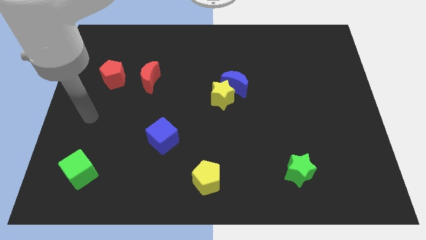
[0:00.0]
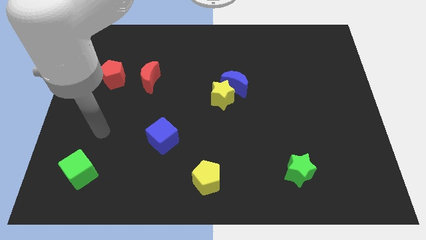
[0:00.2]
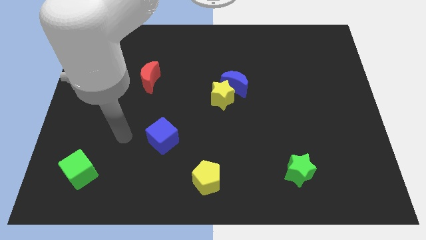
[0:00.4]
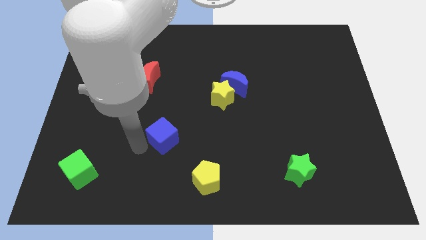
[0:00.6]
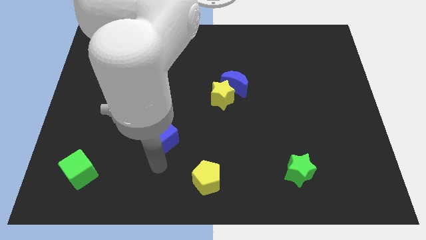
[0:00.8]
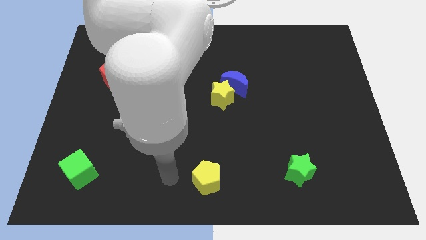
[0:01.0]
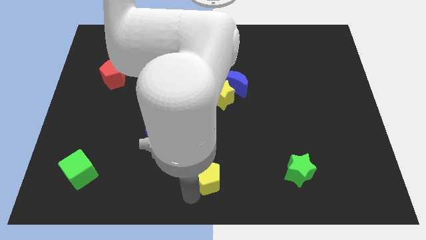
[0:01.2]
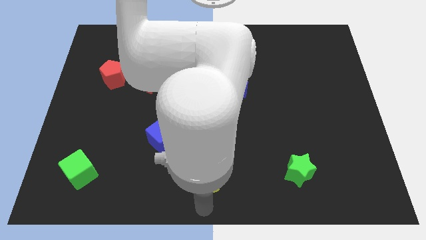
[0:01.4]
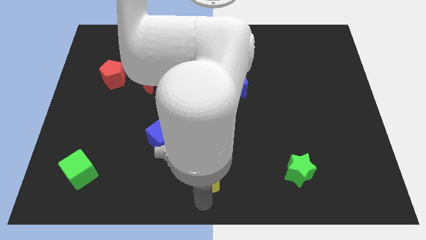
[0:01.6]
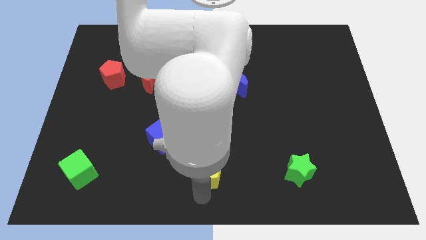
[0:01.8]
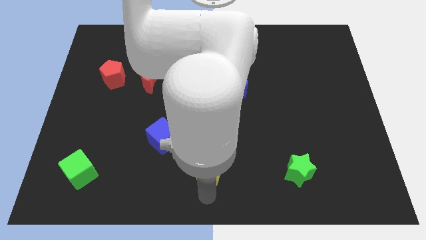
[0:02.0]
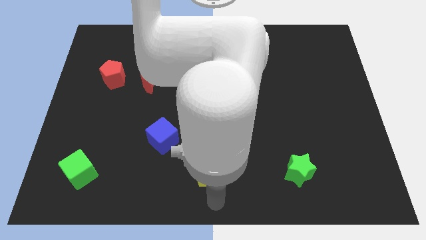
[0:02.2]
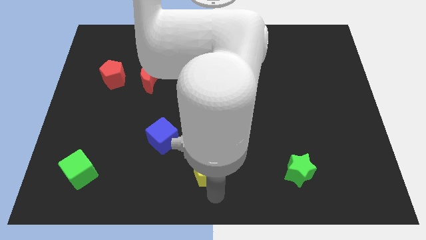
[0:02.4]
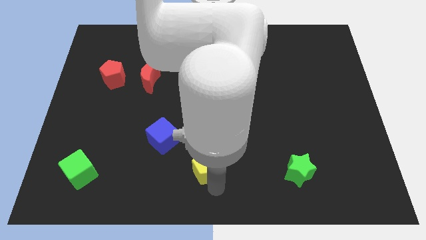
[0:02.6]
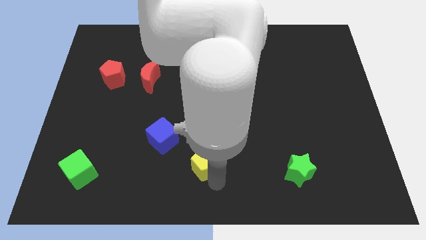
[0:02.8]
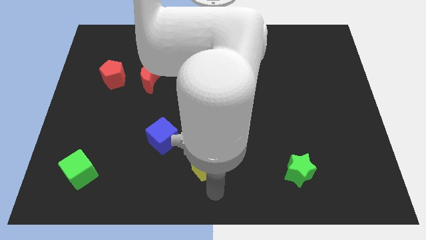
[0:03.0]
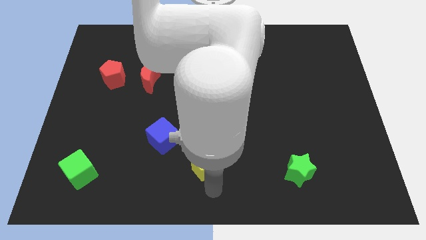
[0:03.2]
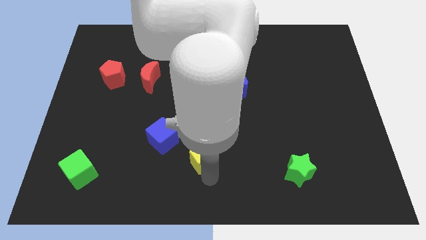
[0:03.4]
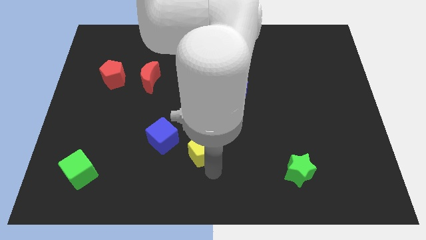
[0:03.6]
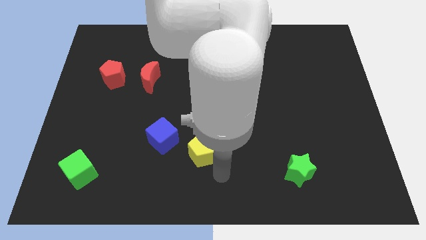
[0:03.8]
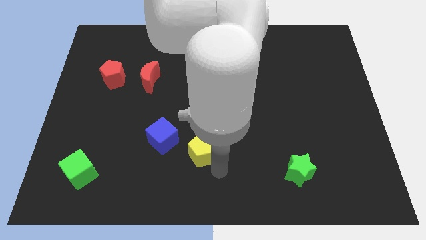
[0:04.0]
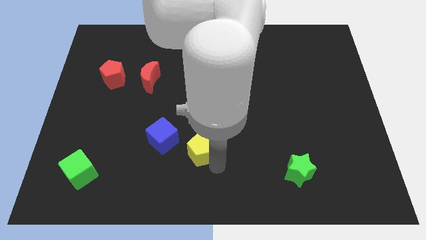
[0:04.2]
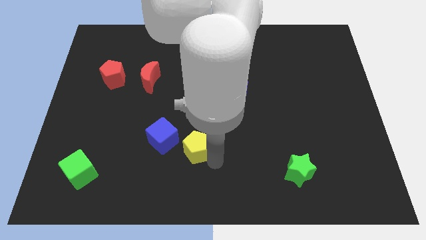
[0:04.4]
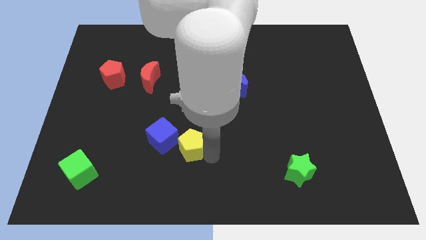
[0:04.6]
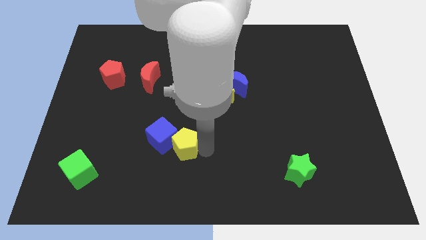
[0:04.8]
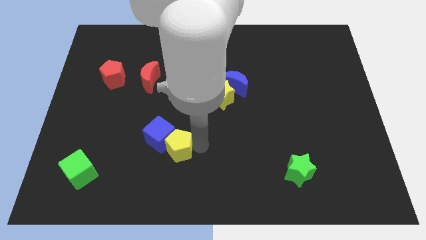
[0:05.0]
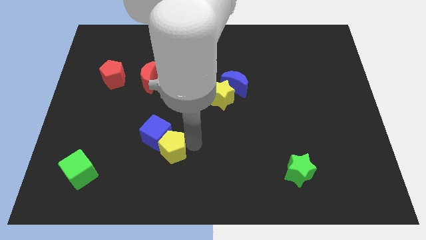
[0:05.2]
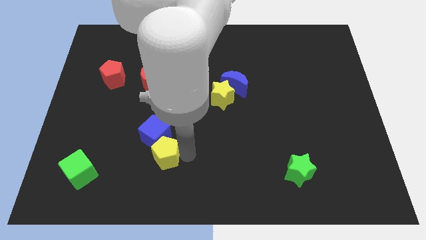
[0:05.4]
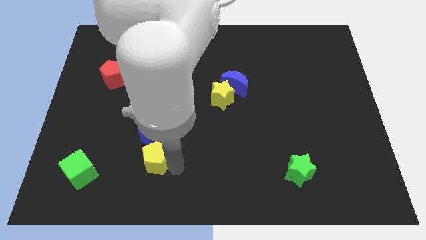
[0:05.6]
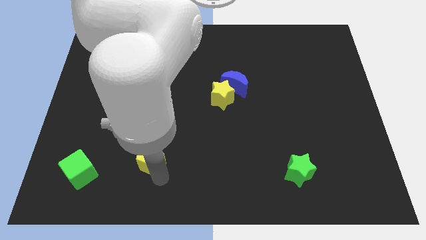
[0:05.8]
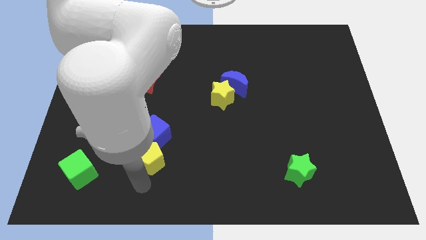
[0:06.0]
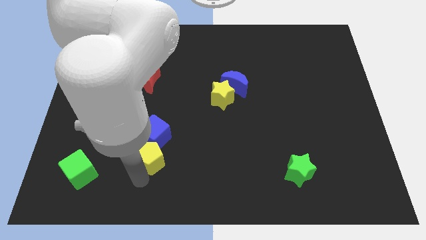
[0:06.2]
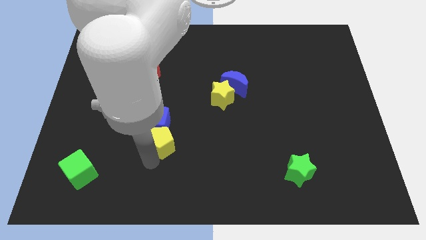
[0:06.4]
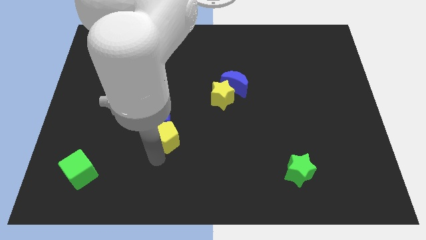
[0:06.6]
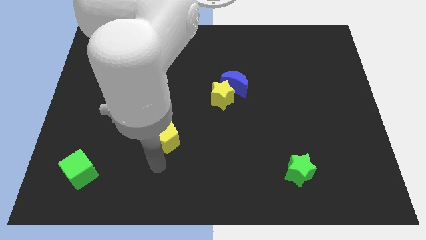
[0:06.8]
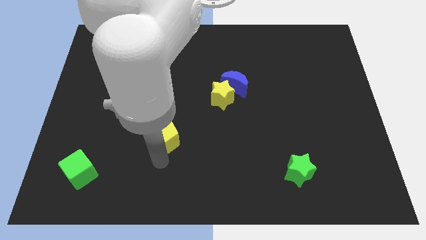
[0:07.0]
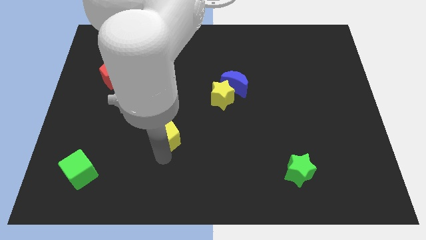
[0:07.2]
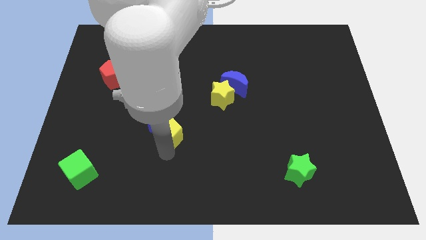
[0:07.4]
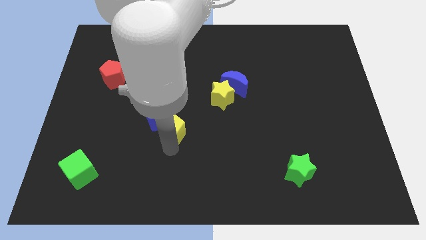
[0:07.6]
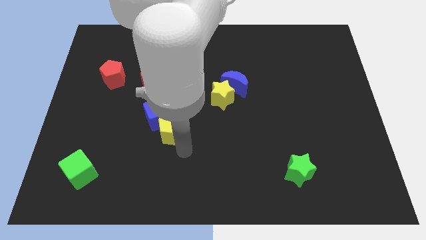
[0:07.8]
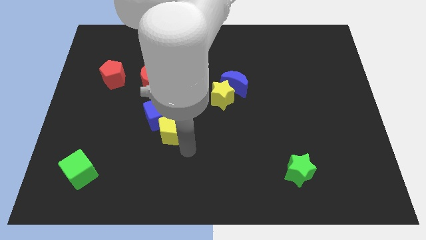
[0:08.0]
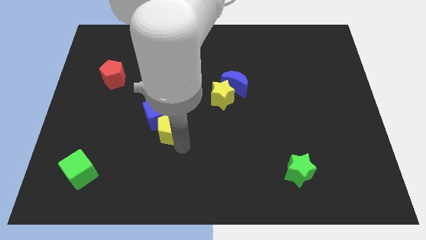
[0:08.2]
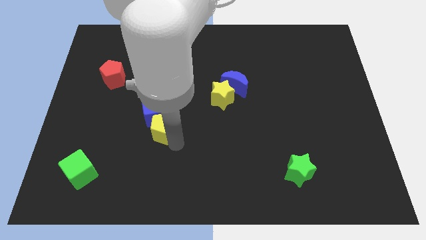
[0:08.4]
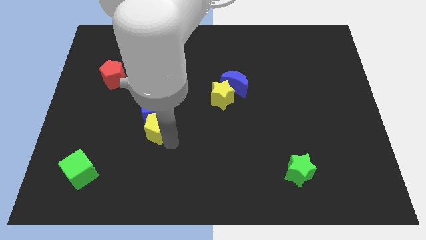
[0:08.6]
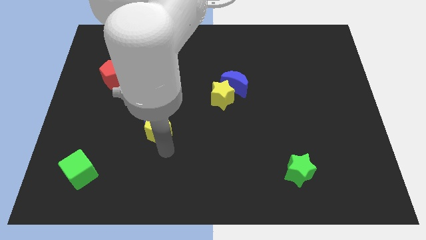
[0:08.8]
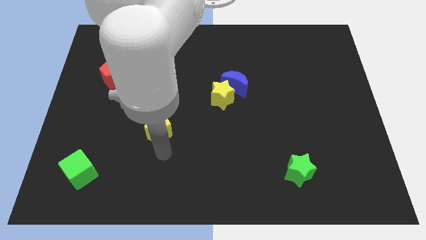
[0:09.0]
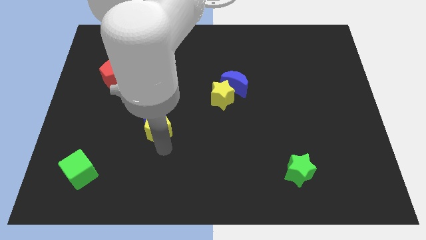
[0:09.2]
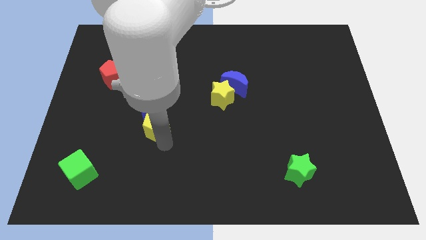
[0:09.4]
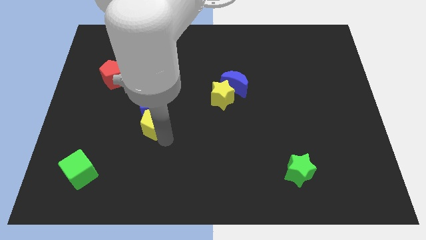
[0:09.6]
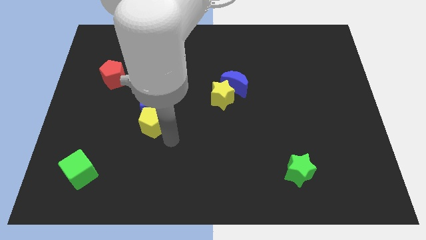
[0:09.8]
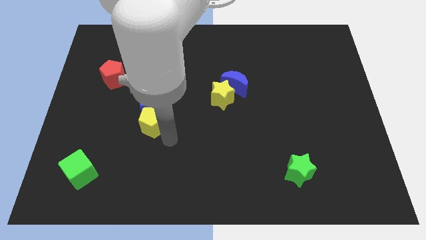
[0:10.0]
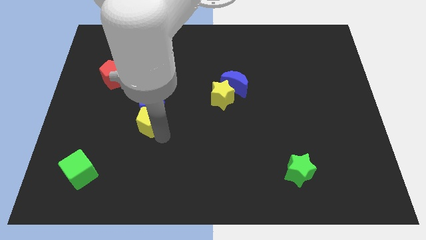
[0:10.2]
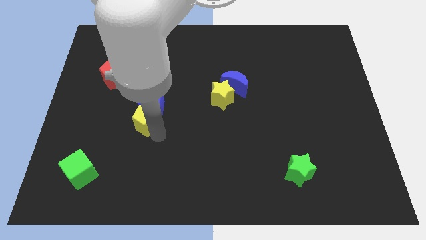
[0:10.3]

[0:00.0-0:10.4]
push the yellow pentagon upwards and then to the left

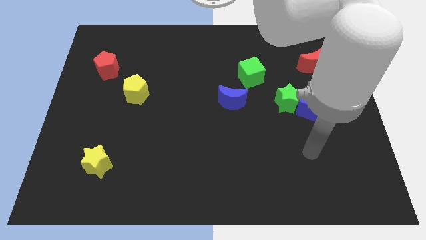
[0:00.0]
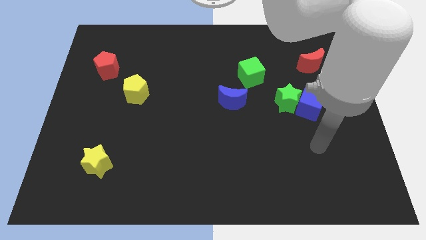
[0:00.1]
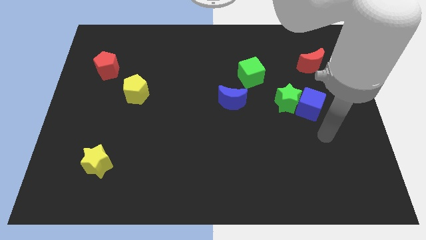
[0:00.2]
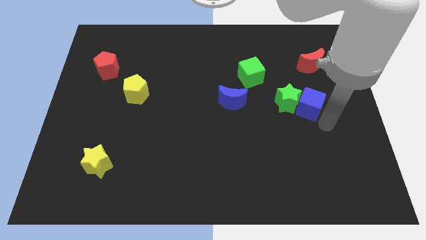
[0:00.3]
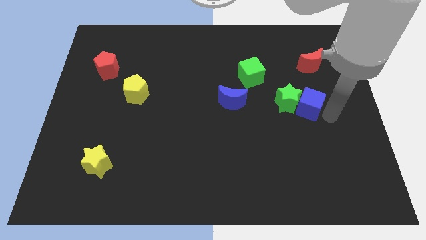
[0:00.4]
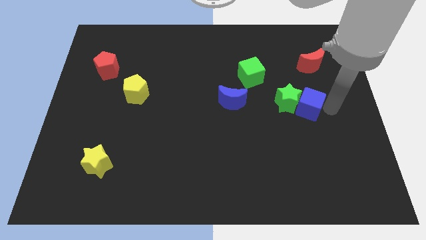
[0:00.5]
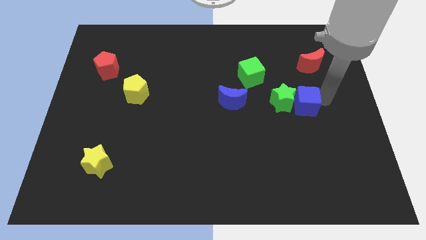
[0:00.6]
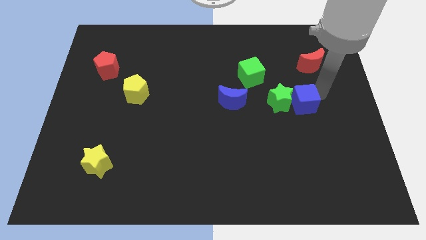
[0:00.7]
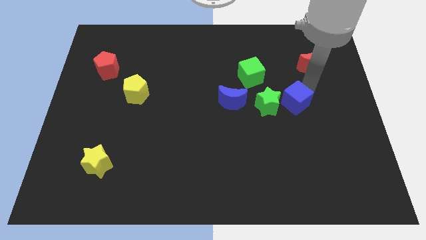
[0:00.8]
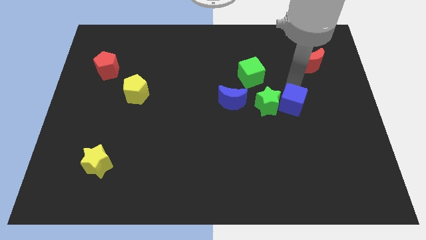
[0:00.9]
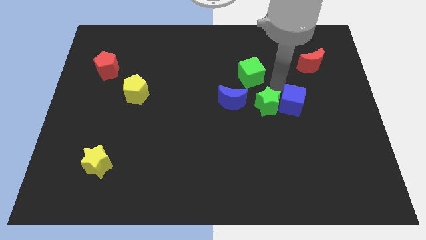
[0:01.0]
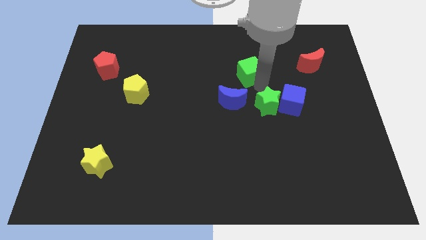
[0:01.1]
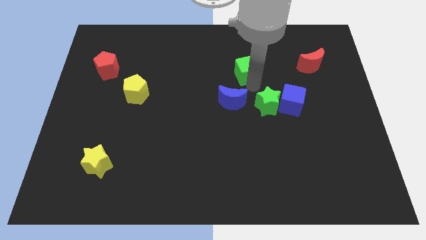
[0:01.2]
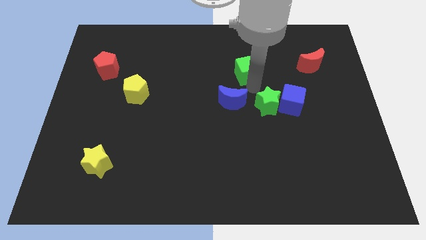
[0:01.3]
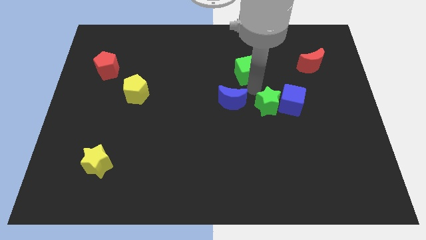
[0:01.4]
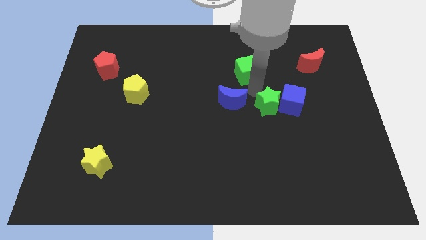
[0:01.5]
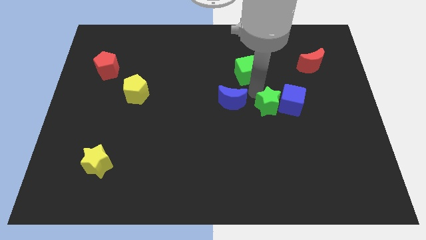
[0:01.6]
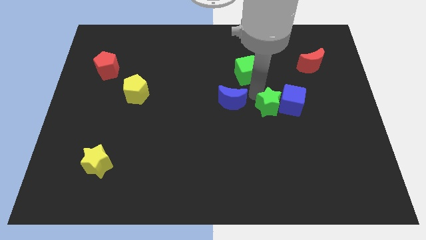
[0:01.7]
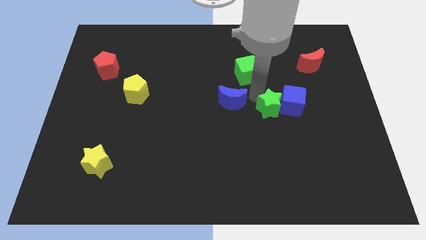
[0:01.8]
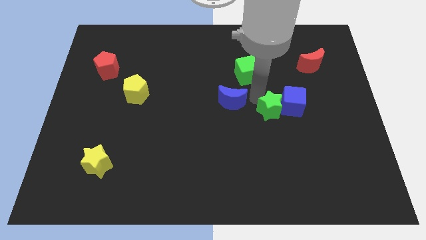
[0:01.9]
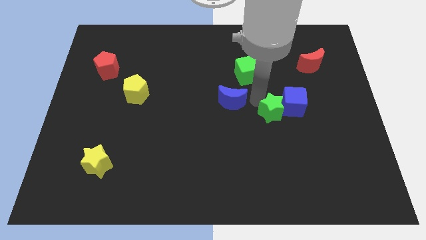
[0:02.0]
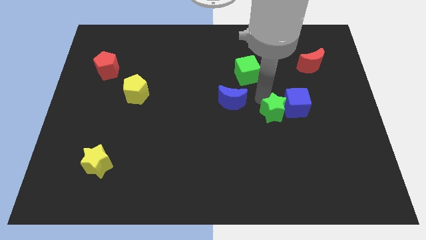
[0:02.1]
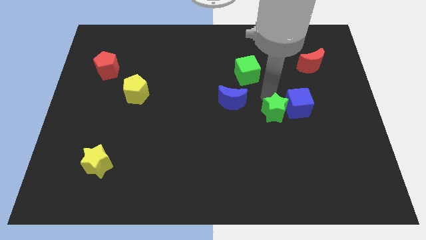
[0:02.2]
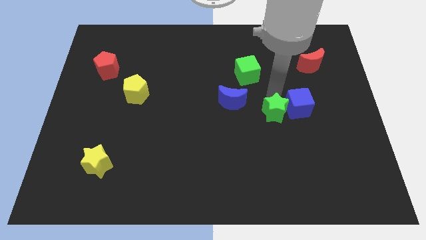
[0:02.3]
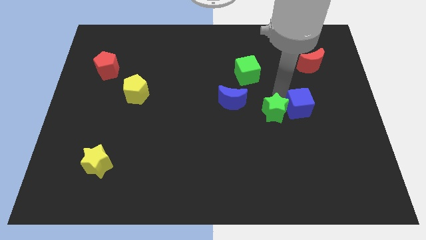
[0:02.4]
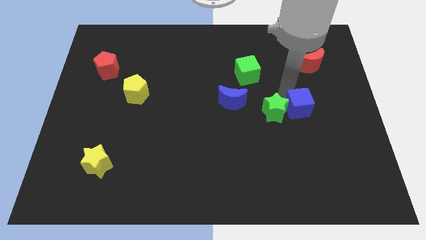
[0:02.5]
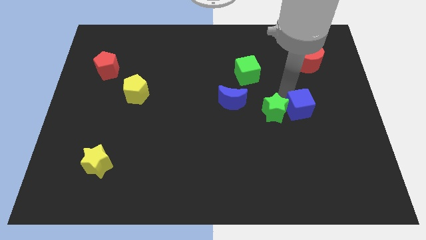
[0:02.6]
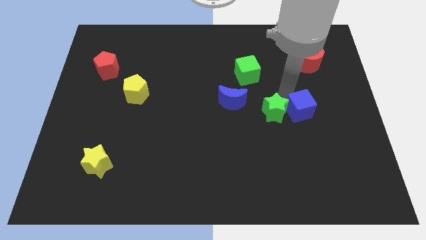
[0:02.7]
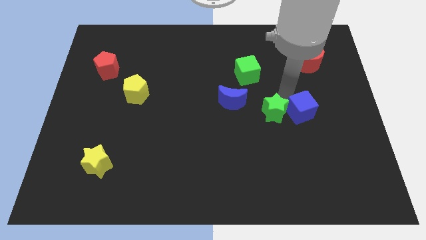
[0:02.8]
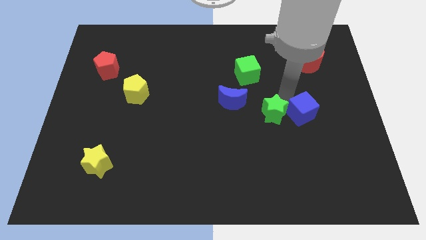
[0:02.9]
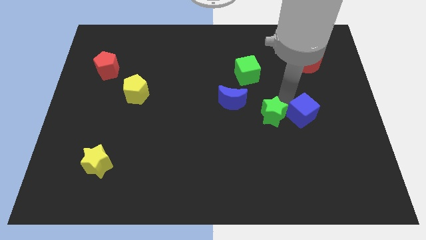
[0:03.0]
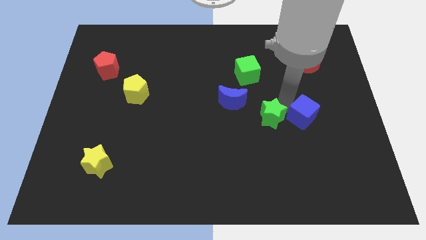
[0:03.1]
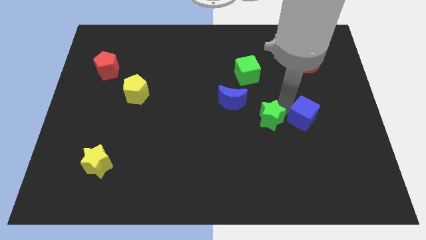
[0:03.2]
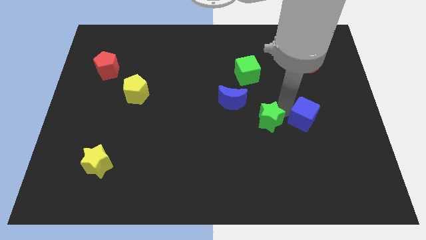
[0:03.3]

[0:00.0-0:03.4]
slightly slide the green star diagonally down and to the left
